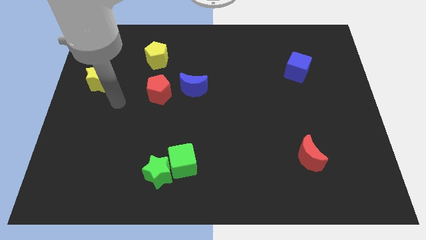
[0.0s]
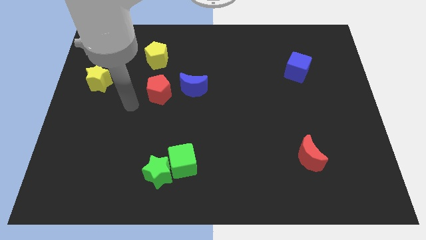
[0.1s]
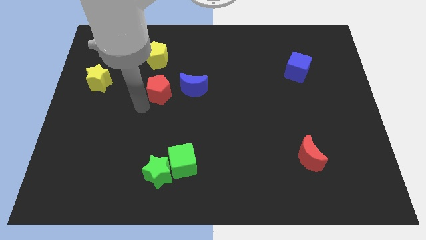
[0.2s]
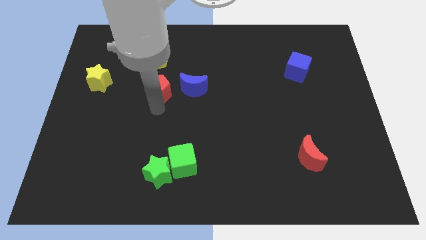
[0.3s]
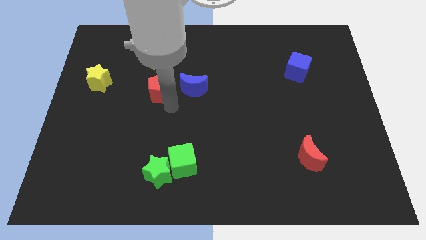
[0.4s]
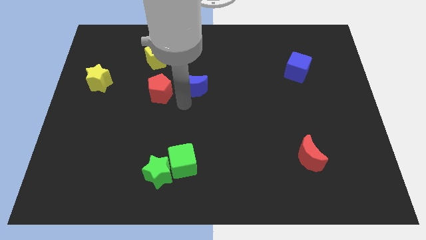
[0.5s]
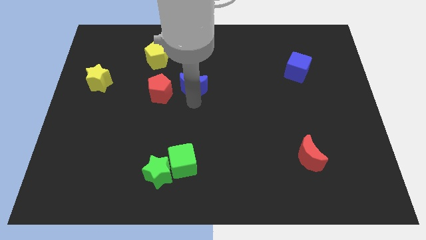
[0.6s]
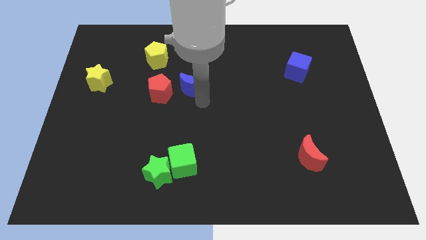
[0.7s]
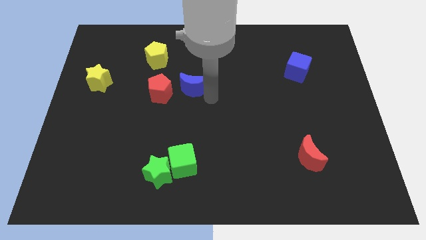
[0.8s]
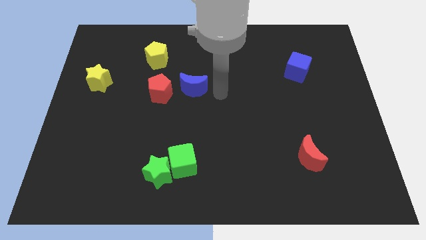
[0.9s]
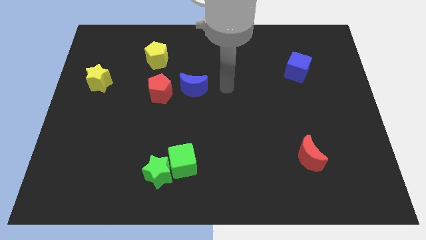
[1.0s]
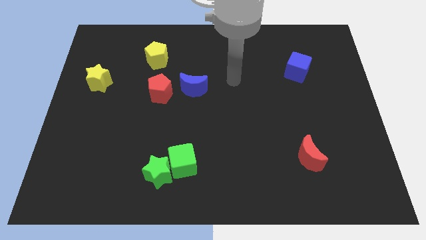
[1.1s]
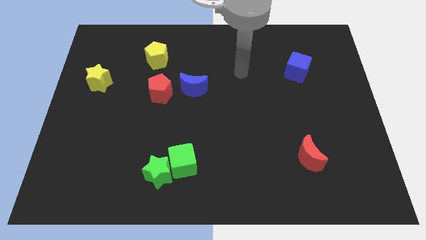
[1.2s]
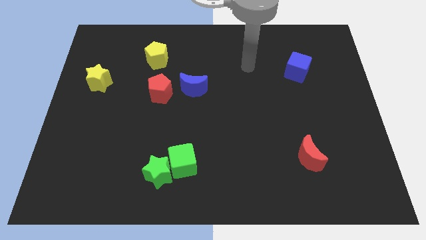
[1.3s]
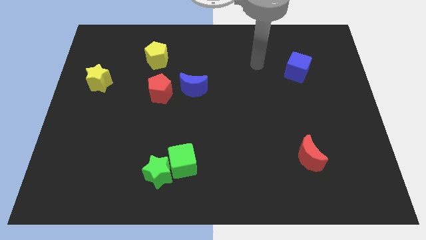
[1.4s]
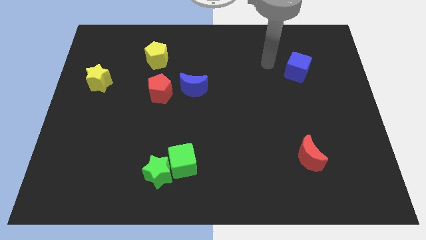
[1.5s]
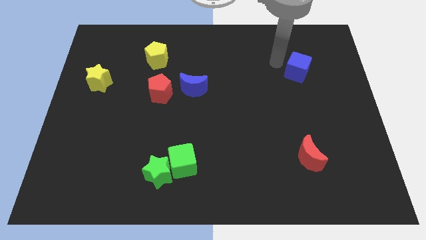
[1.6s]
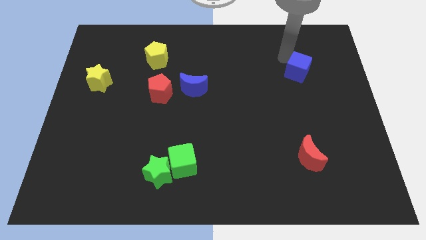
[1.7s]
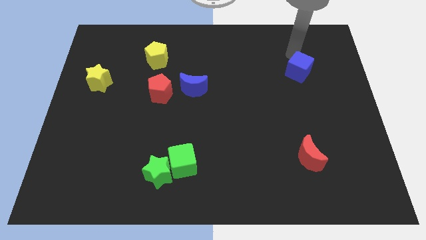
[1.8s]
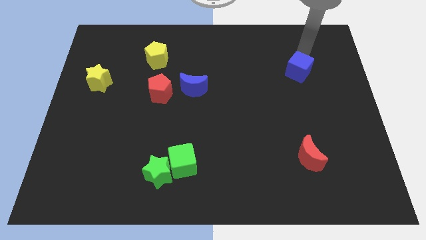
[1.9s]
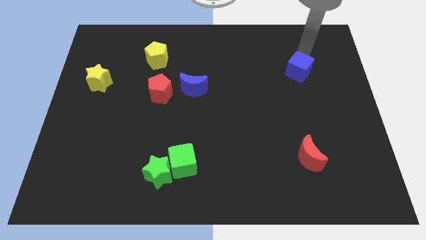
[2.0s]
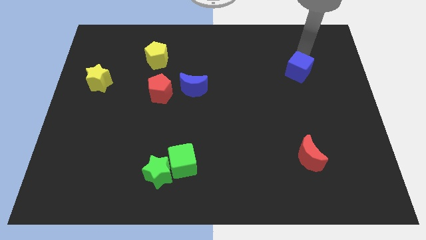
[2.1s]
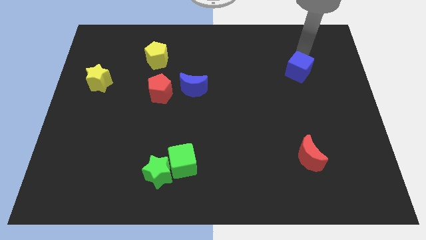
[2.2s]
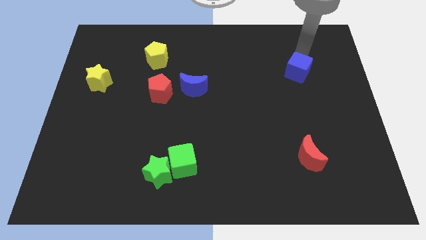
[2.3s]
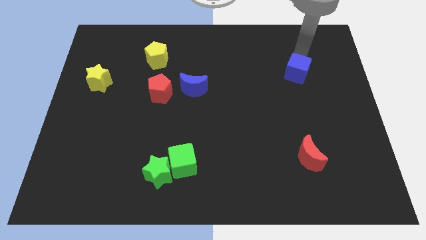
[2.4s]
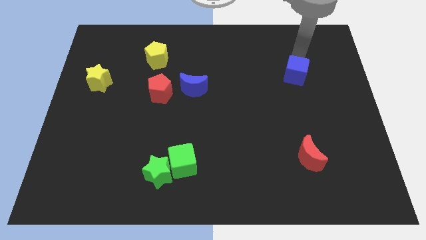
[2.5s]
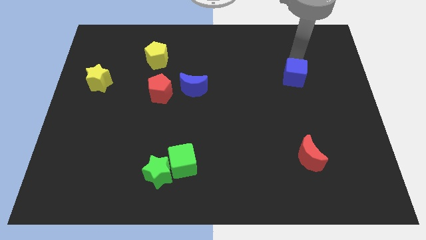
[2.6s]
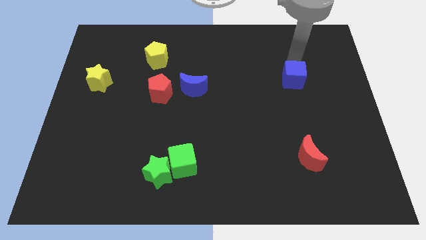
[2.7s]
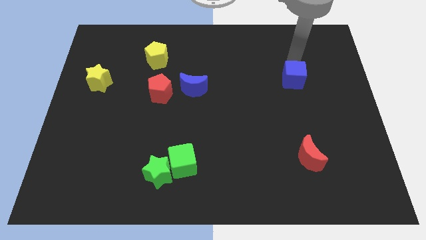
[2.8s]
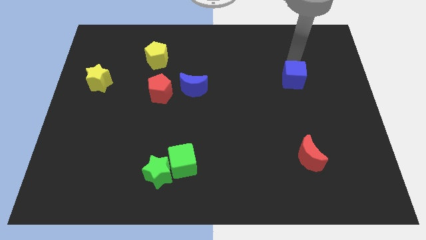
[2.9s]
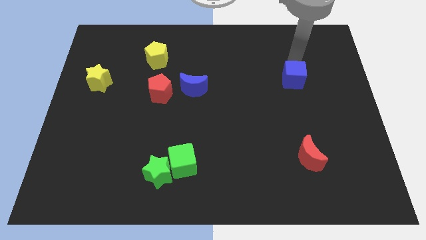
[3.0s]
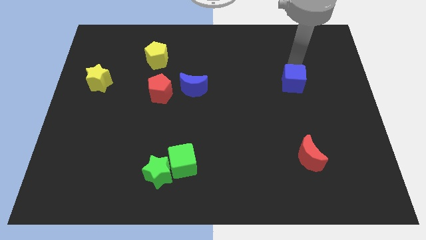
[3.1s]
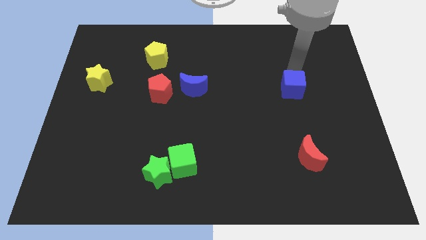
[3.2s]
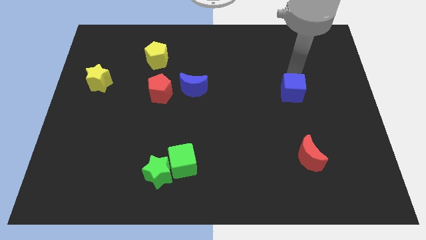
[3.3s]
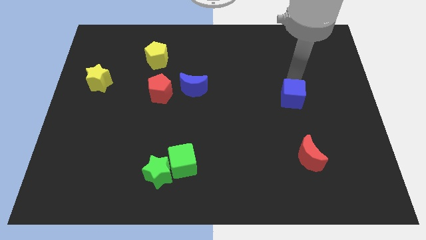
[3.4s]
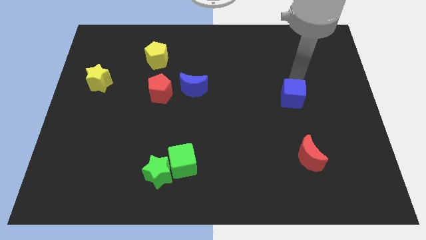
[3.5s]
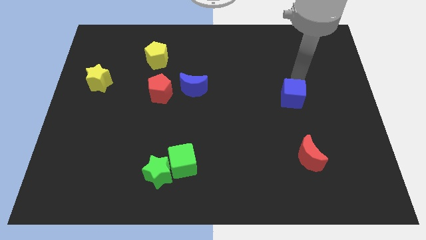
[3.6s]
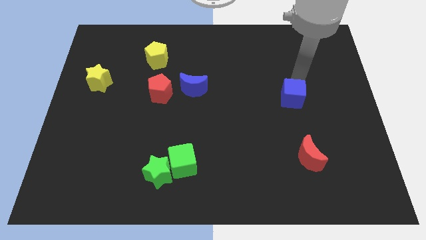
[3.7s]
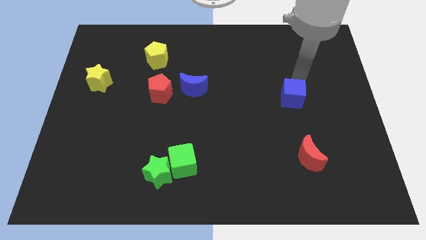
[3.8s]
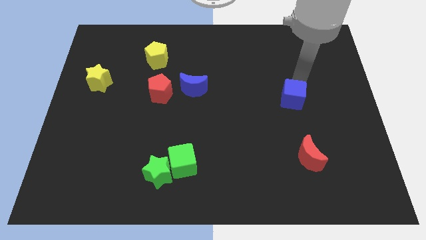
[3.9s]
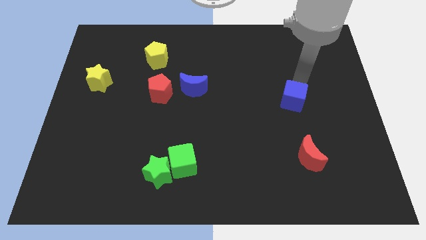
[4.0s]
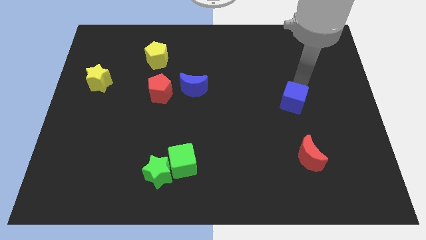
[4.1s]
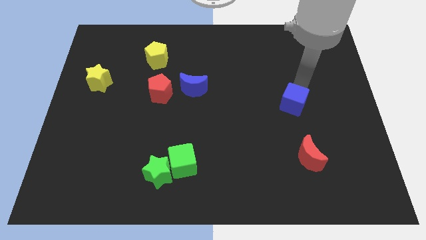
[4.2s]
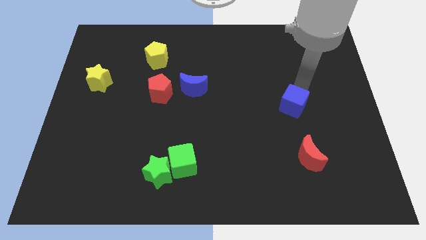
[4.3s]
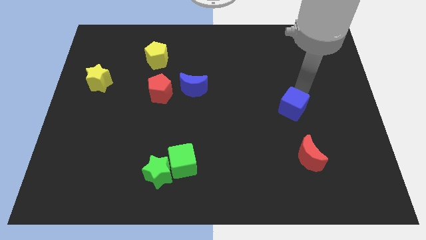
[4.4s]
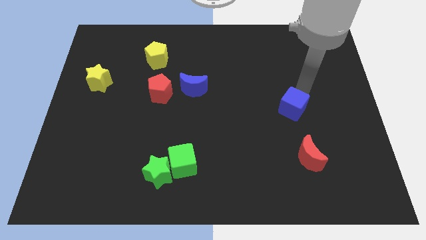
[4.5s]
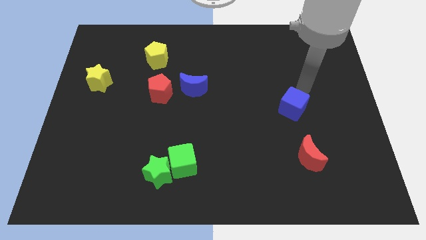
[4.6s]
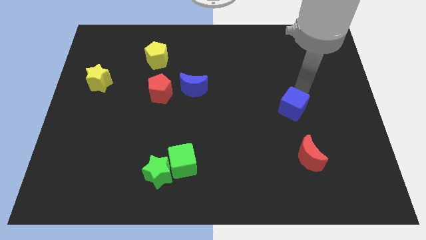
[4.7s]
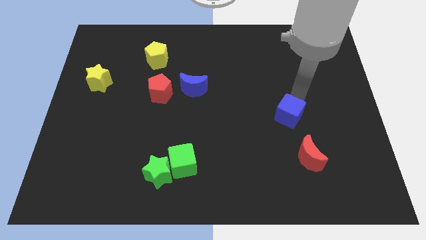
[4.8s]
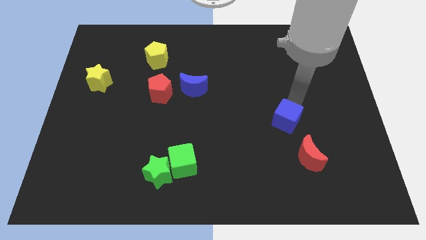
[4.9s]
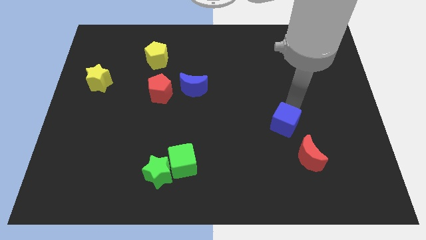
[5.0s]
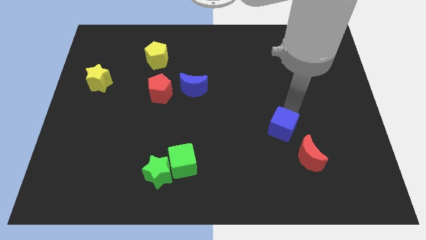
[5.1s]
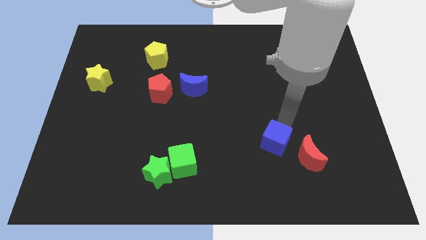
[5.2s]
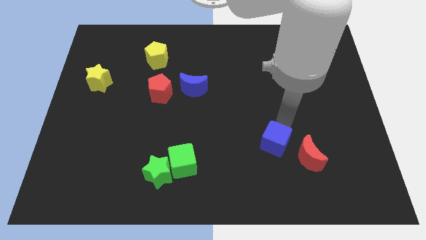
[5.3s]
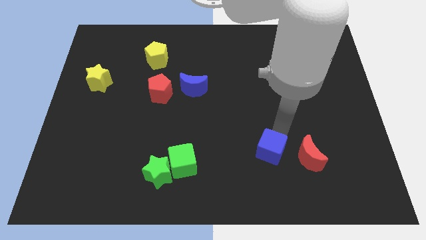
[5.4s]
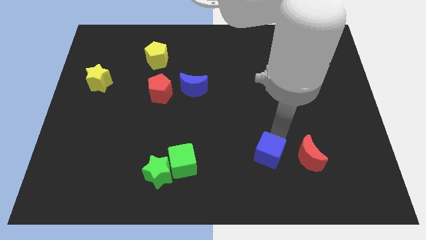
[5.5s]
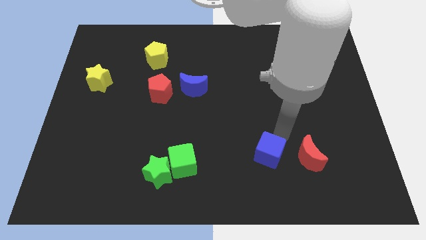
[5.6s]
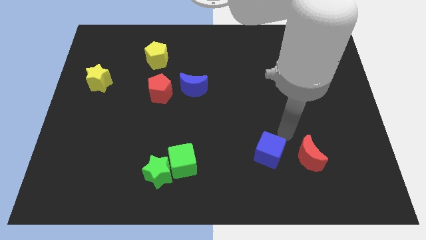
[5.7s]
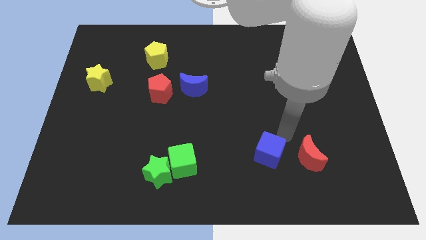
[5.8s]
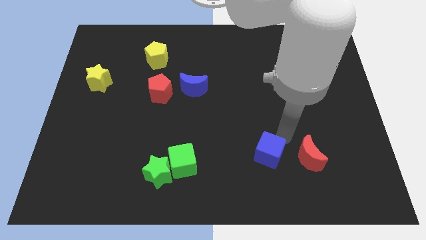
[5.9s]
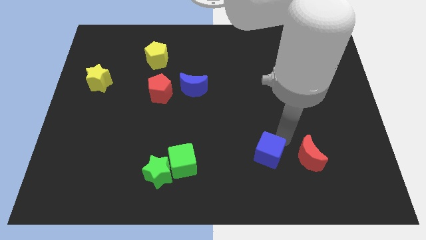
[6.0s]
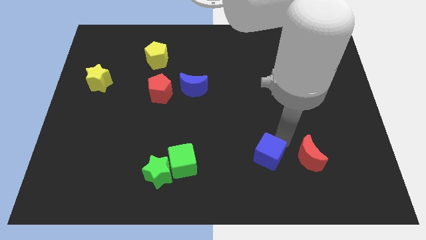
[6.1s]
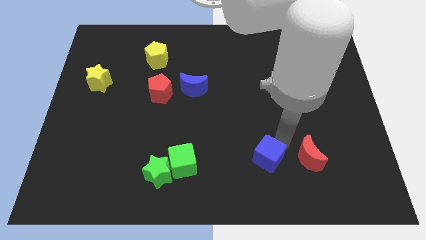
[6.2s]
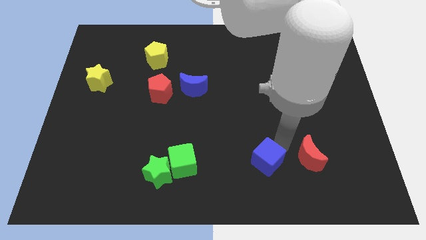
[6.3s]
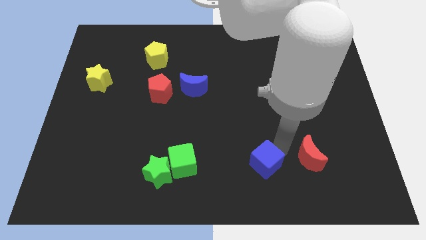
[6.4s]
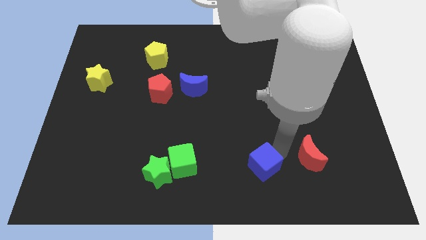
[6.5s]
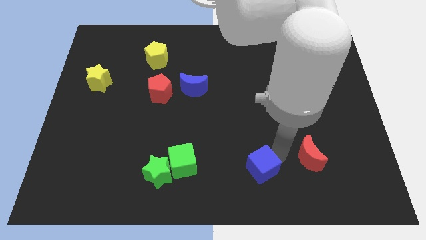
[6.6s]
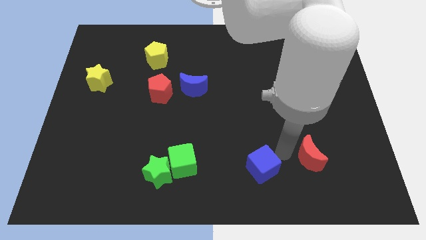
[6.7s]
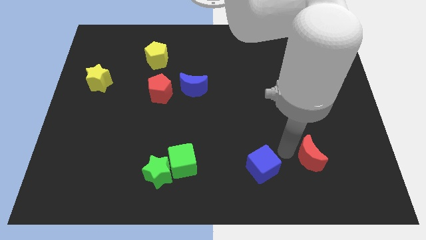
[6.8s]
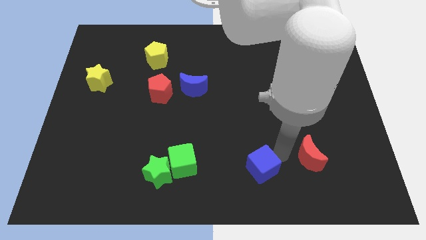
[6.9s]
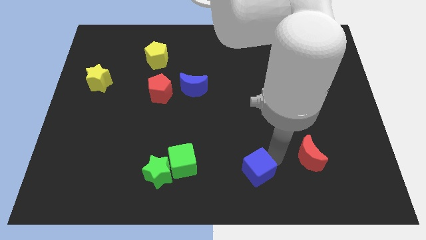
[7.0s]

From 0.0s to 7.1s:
put the blue cube to the bottom side
